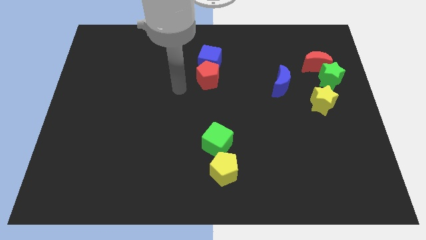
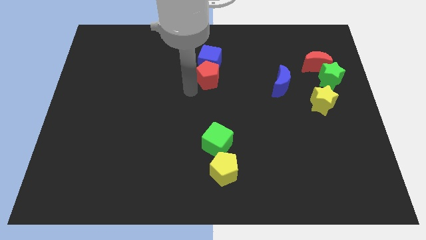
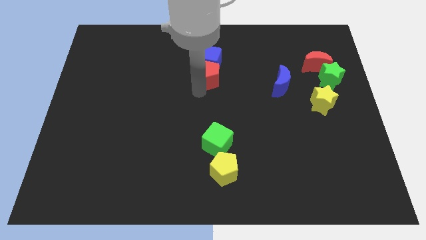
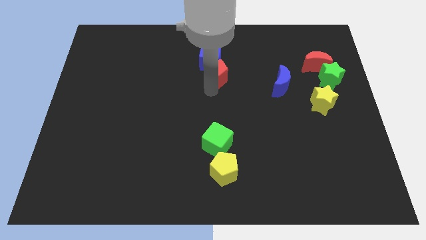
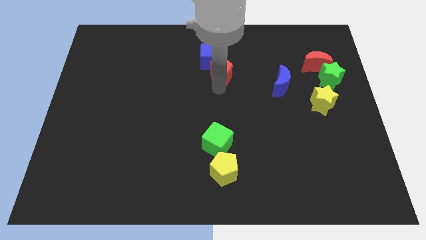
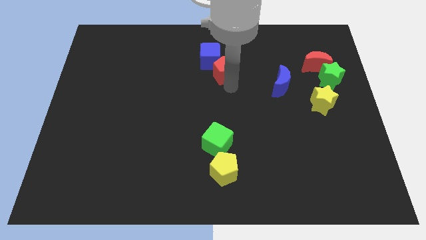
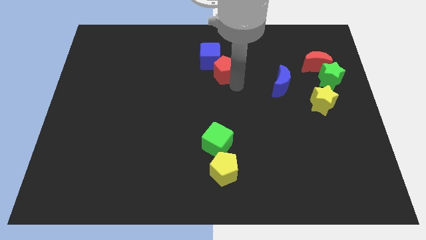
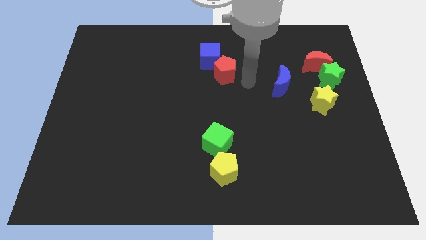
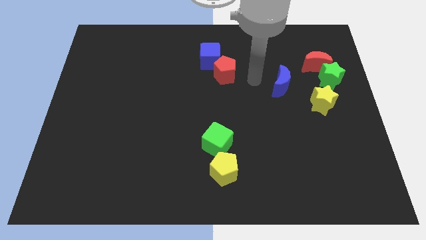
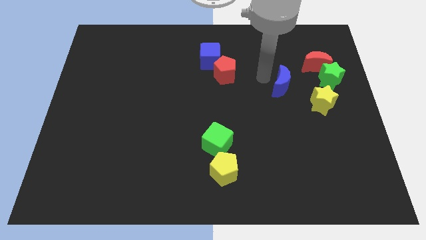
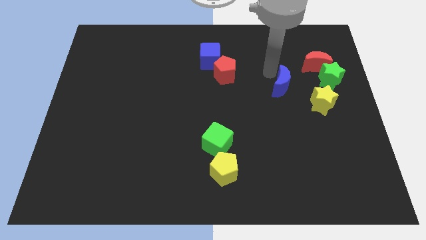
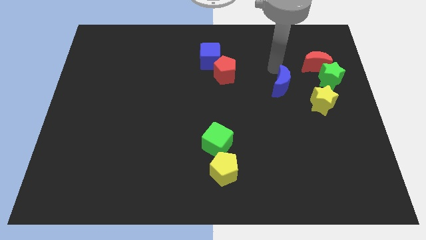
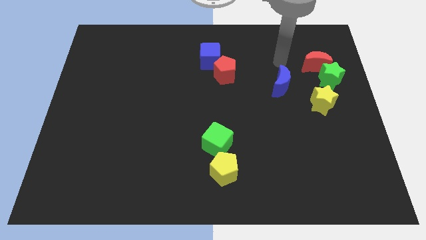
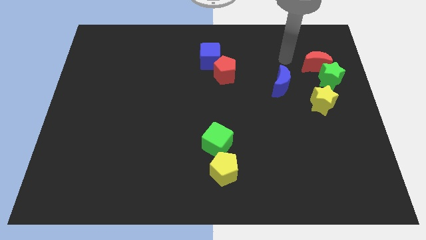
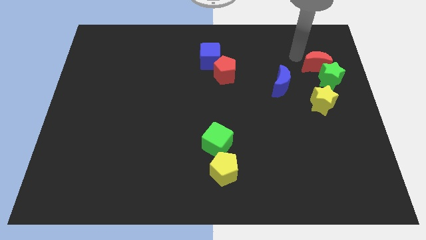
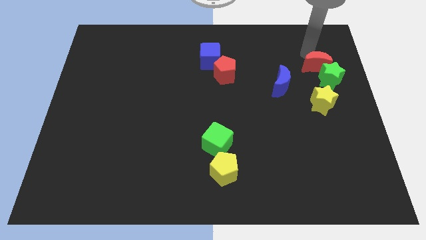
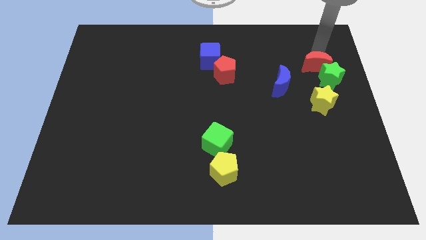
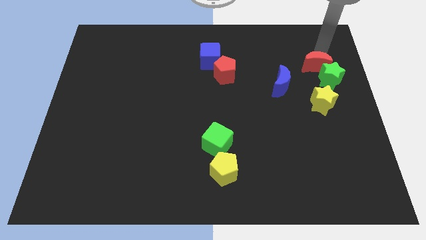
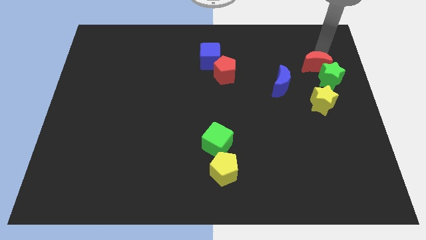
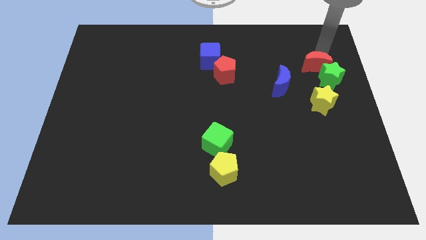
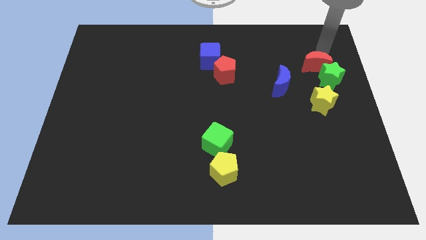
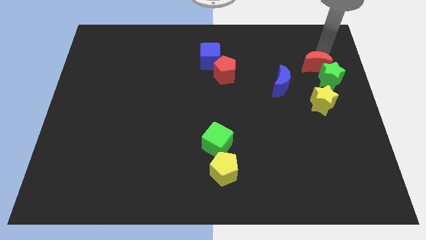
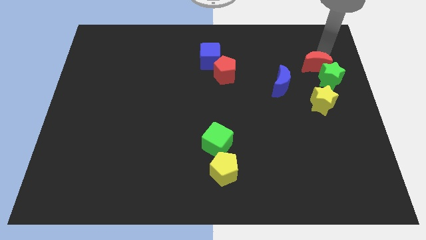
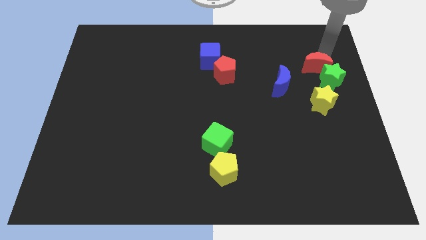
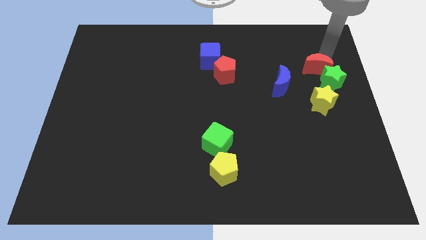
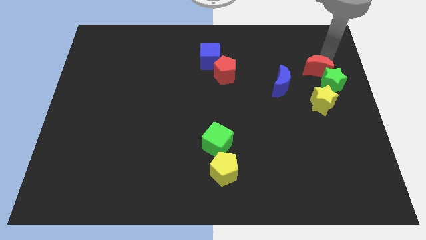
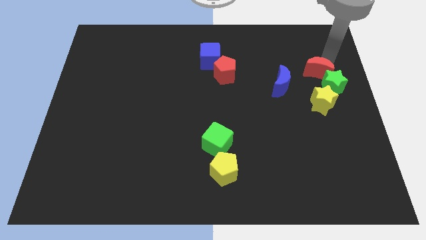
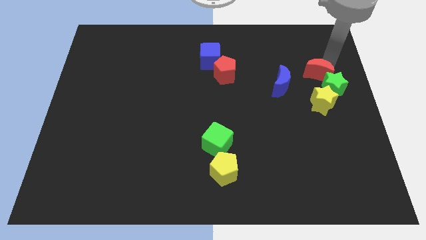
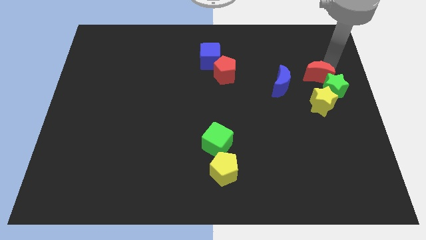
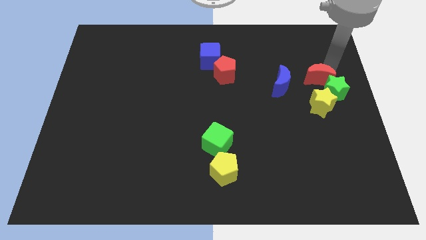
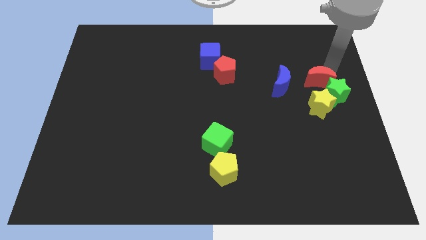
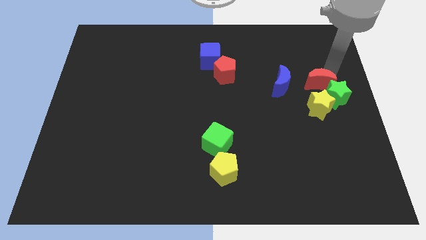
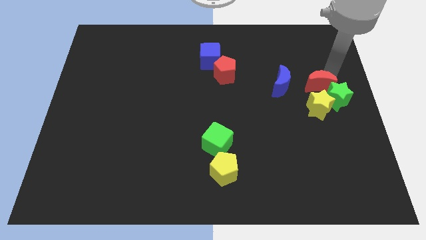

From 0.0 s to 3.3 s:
slightly push the red moon downwards

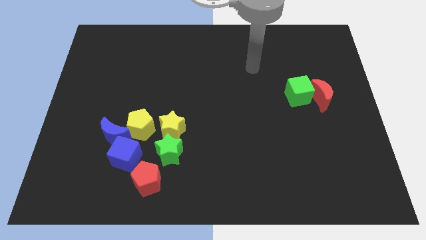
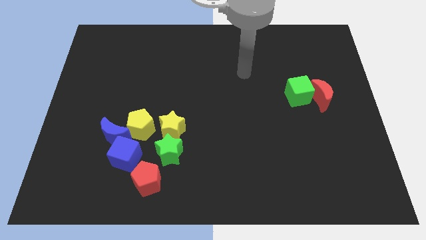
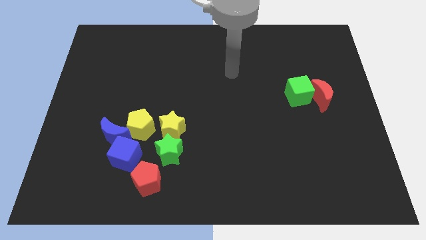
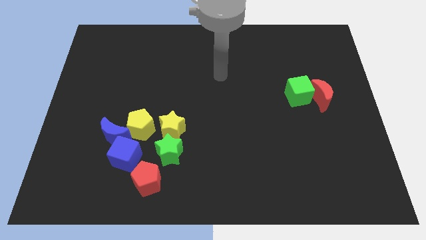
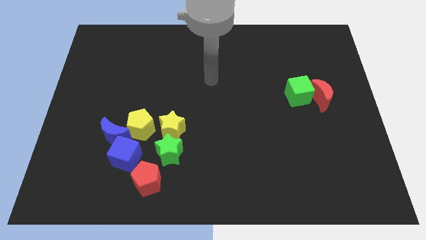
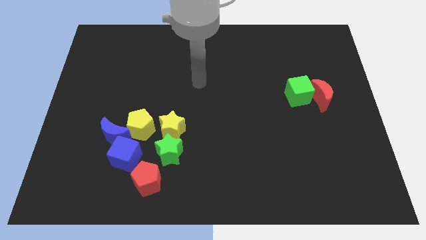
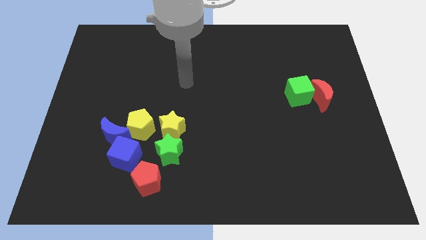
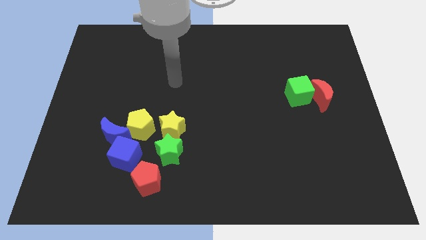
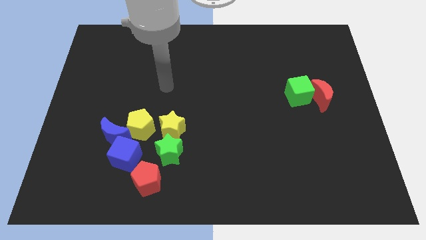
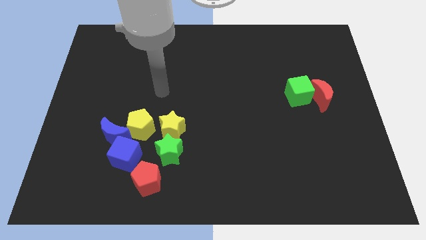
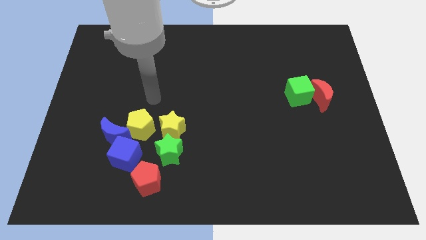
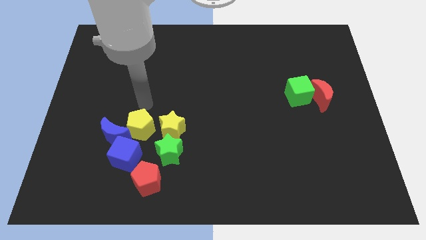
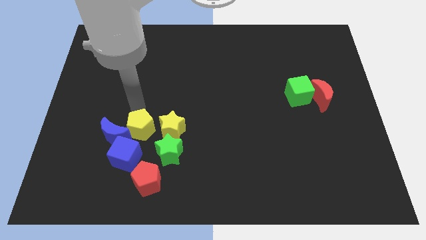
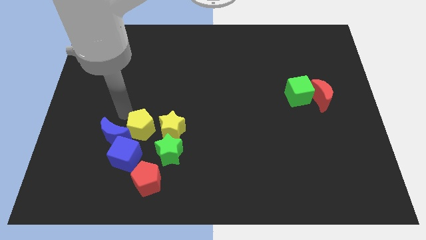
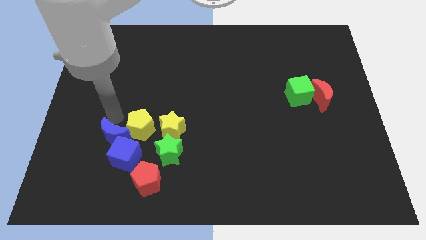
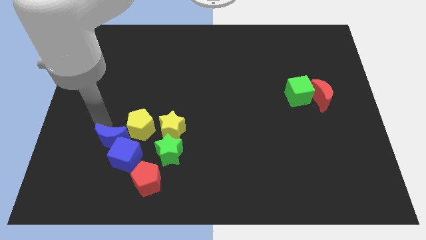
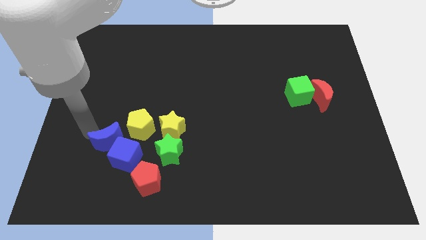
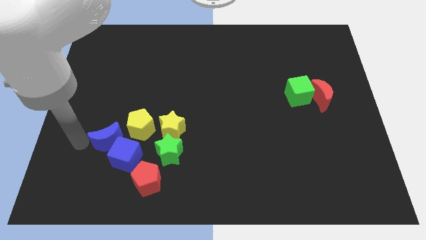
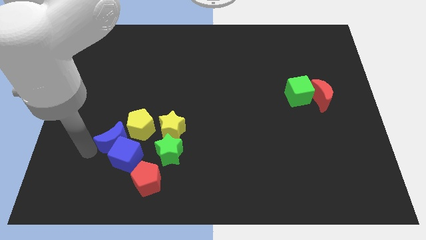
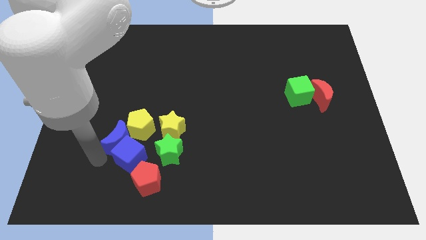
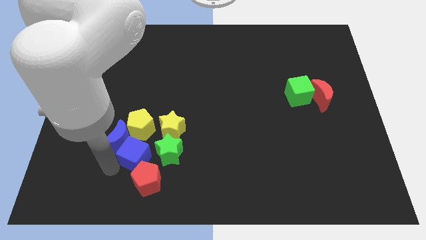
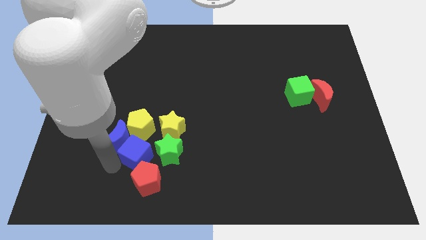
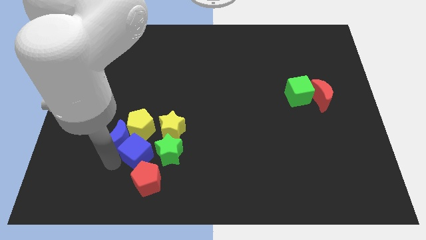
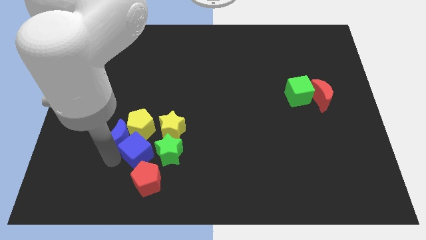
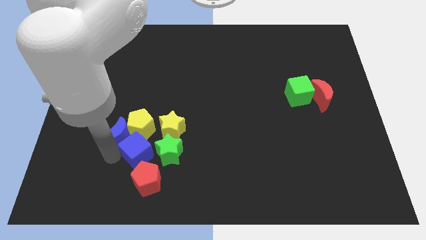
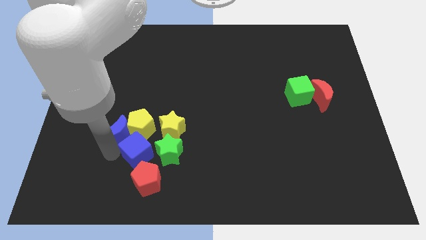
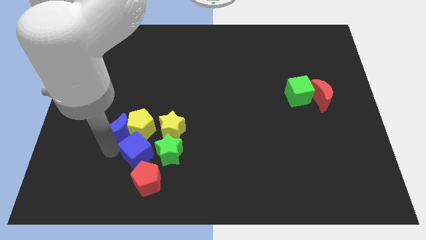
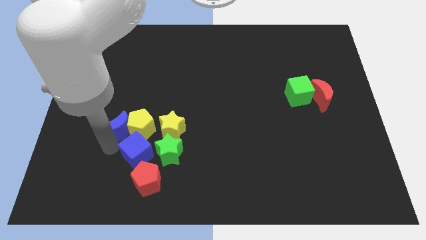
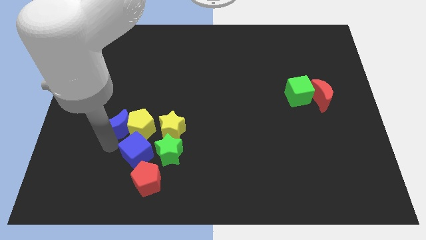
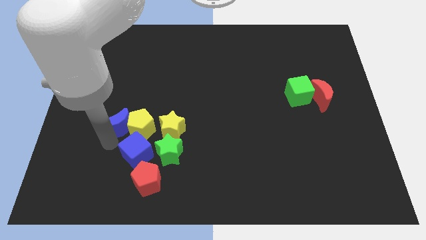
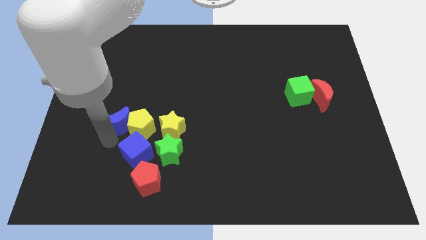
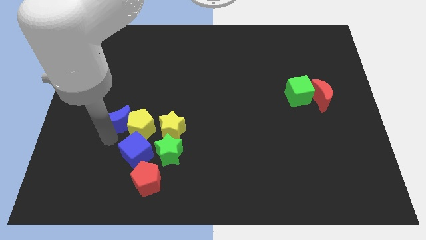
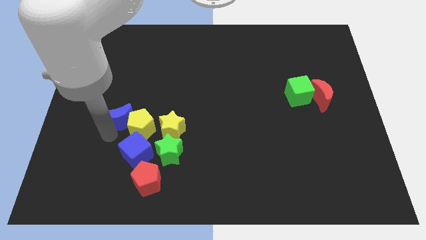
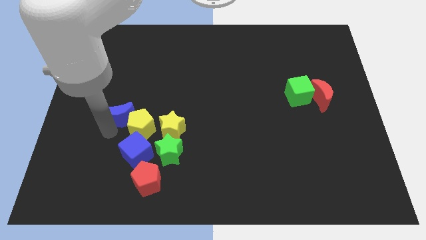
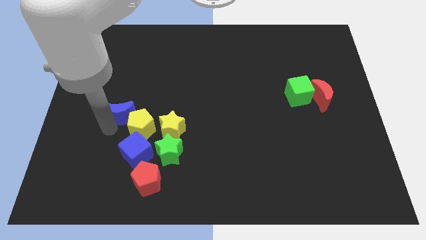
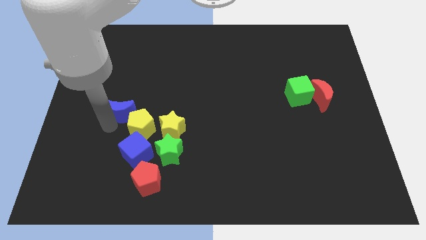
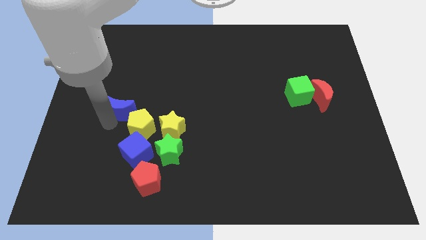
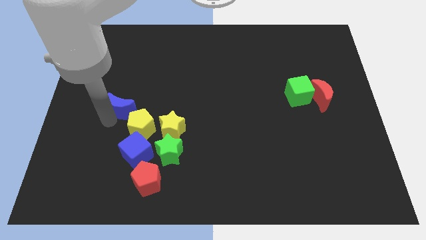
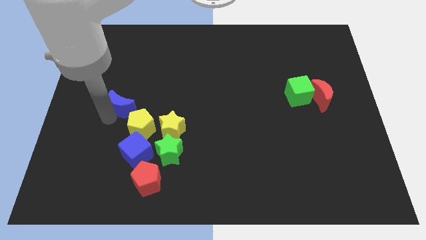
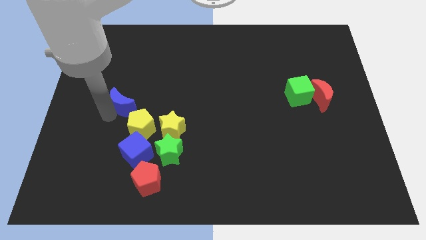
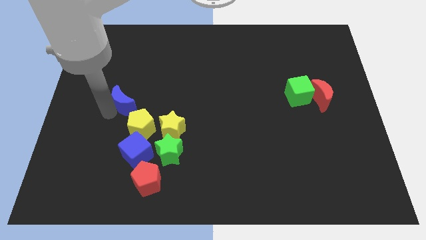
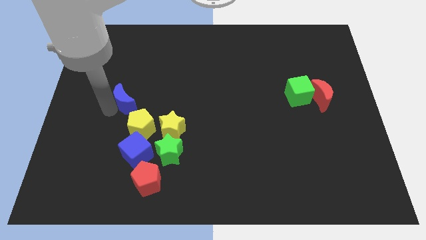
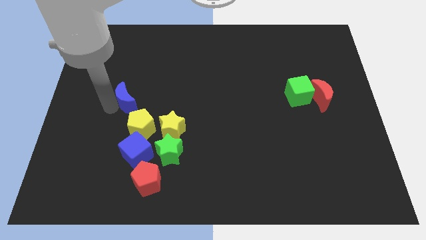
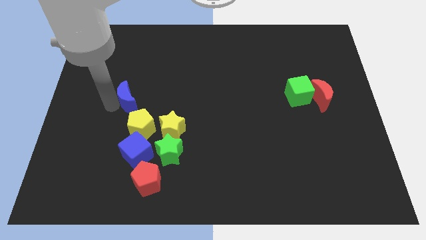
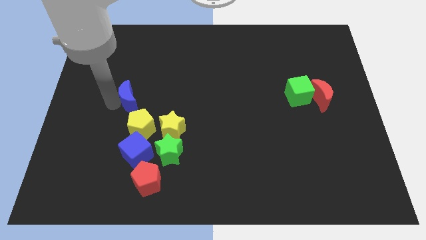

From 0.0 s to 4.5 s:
slightly push the blue moon diagonally upwards and right

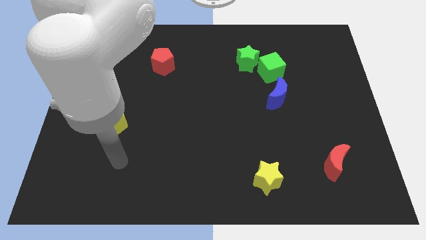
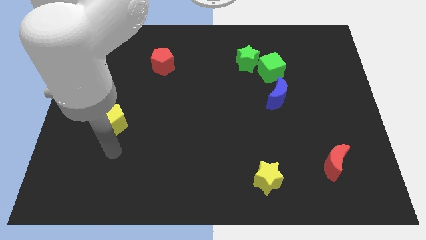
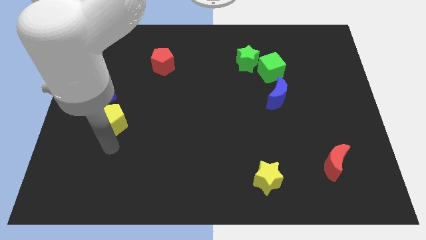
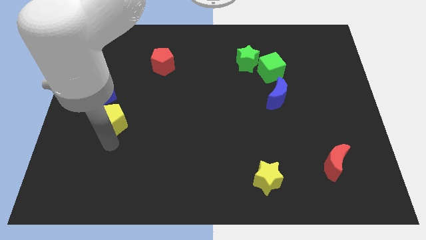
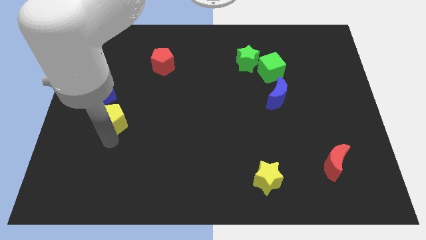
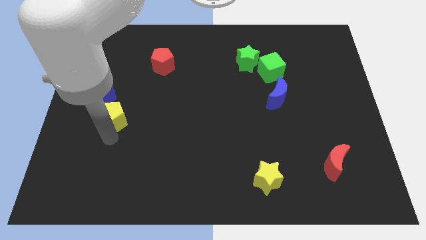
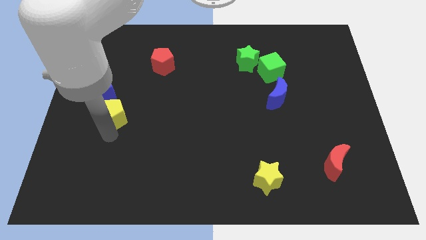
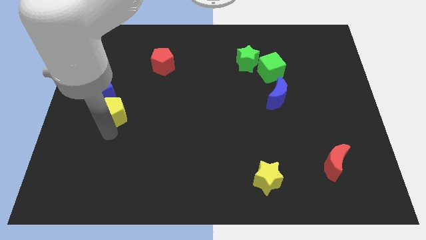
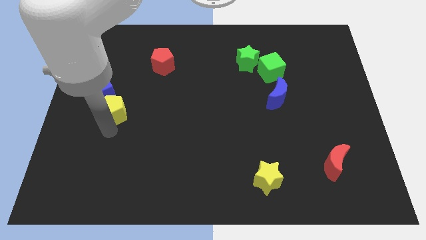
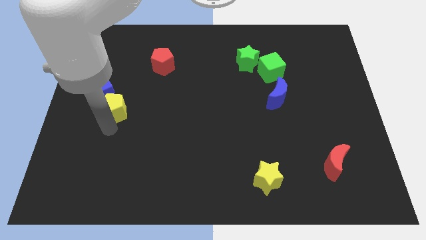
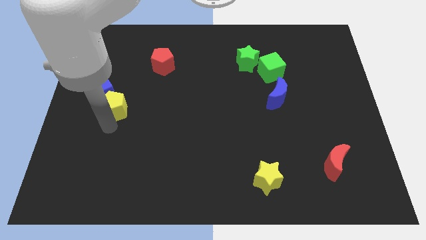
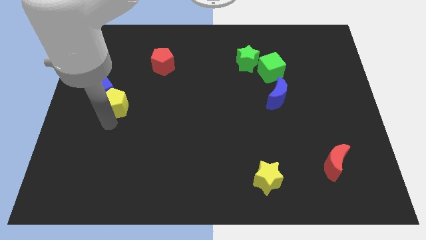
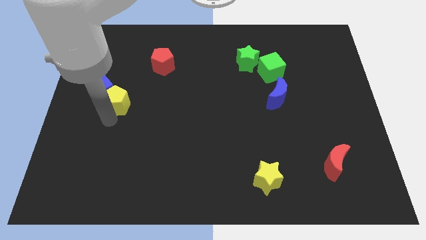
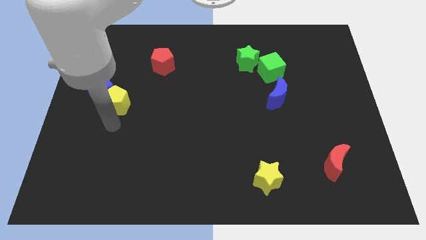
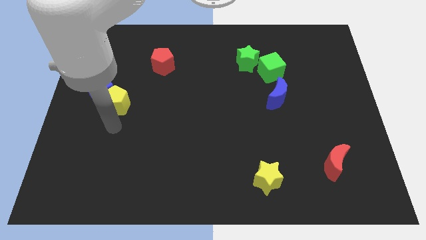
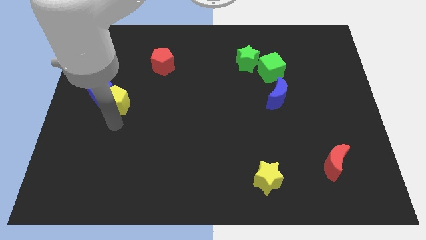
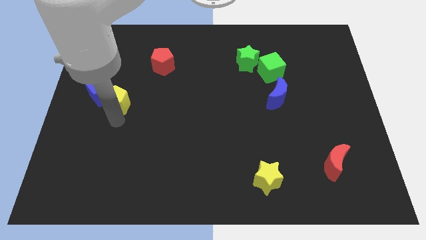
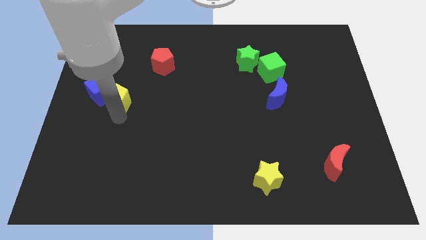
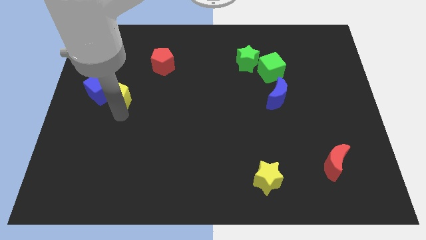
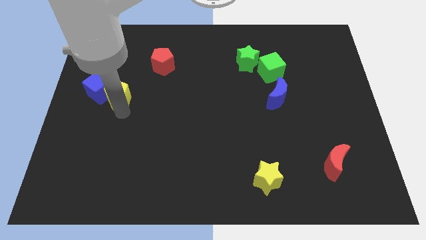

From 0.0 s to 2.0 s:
slide the yellow pentagon slightly up
